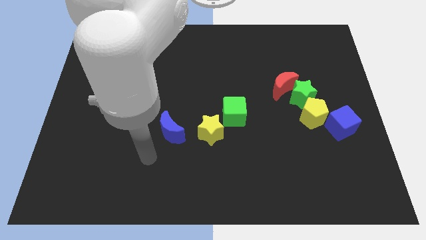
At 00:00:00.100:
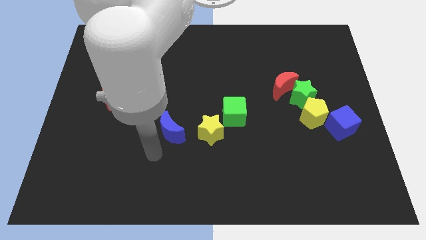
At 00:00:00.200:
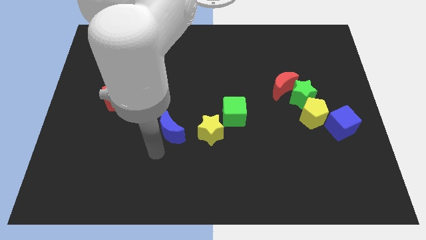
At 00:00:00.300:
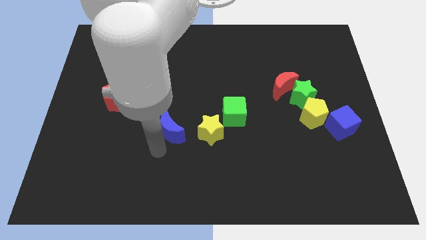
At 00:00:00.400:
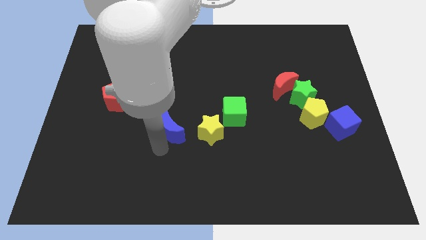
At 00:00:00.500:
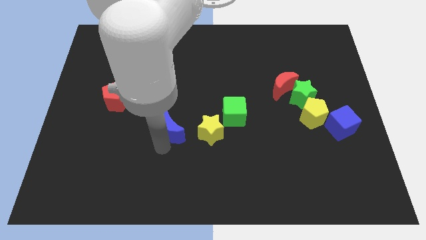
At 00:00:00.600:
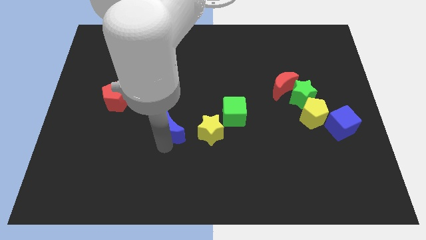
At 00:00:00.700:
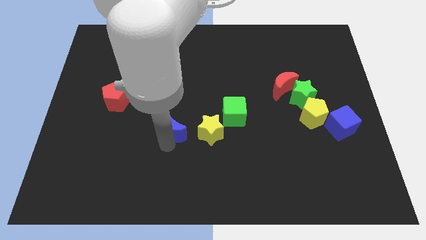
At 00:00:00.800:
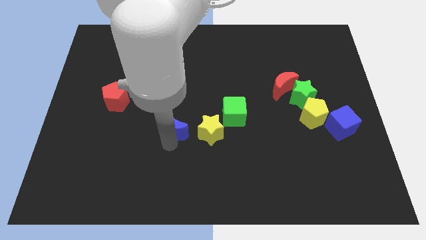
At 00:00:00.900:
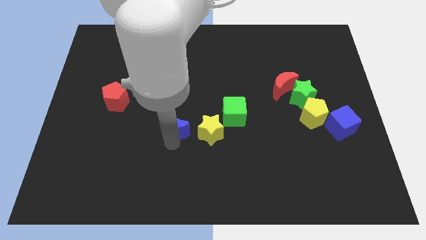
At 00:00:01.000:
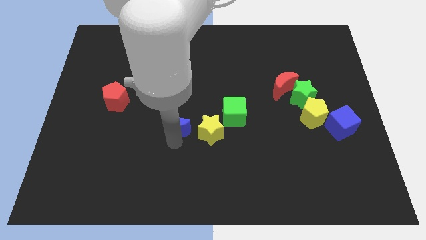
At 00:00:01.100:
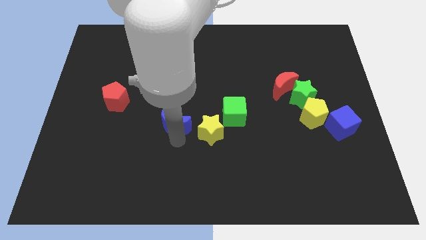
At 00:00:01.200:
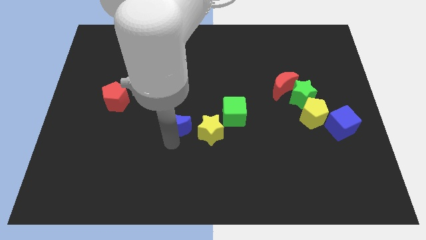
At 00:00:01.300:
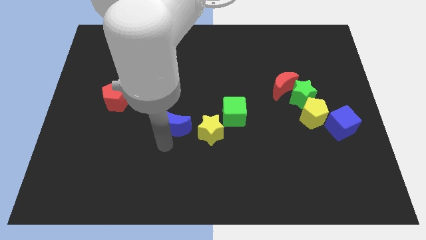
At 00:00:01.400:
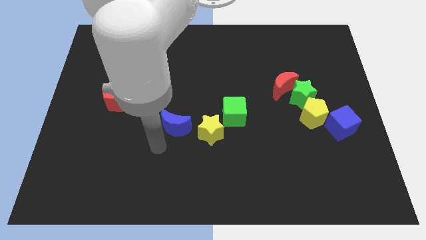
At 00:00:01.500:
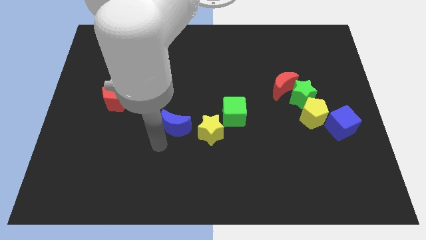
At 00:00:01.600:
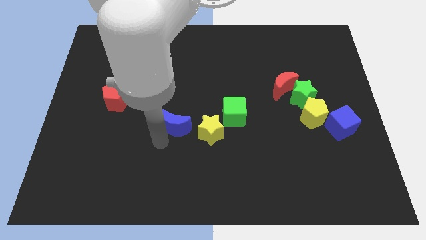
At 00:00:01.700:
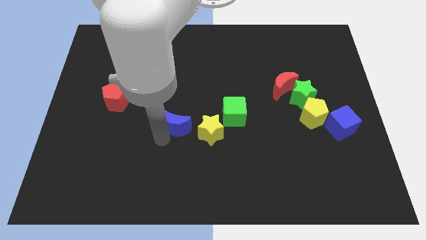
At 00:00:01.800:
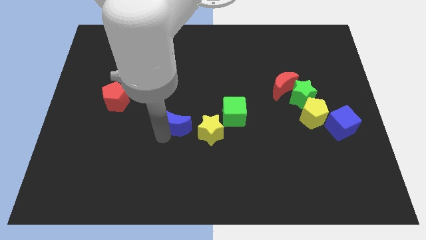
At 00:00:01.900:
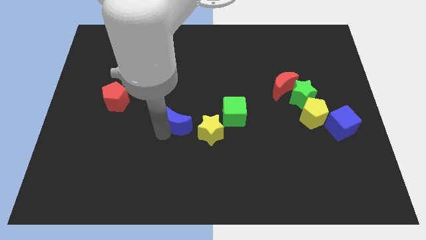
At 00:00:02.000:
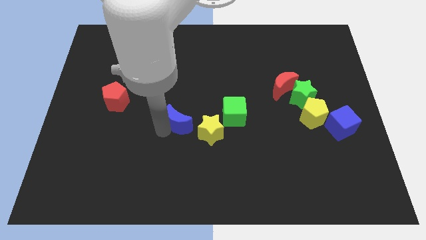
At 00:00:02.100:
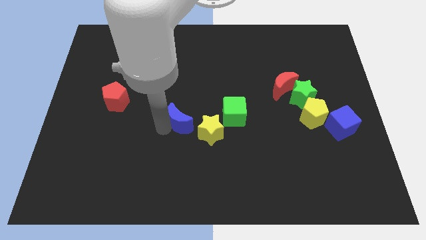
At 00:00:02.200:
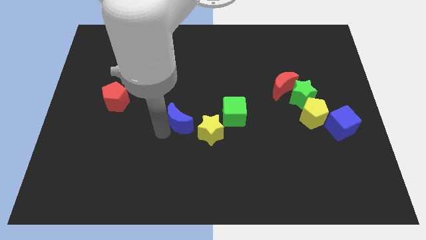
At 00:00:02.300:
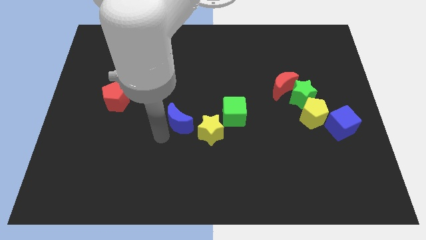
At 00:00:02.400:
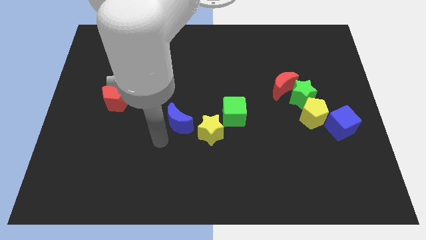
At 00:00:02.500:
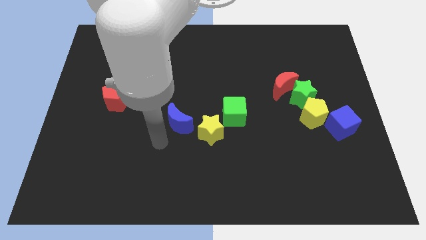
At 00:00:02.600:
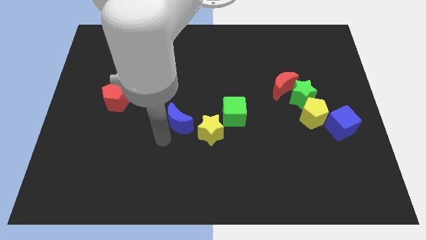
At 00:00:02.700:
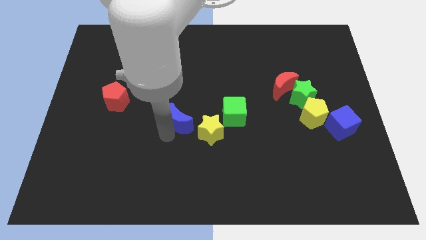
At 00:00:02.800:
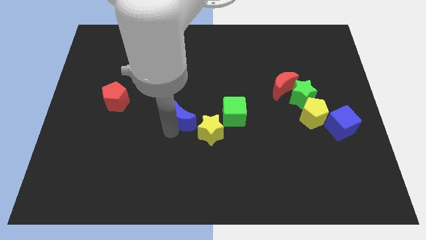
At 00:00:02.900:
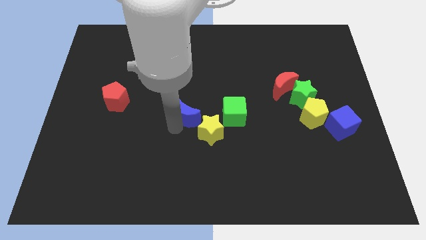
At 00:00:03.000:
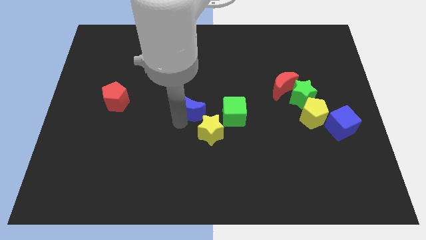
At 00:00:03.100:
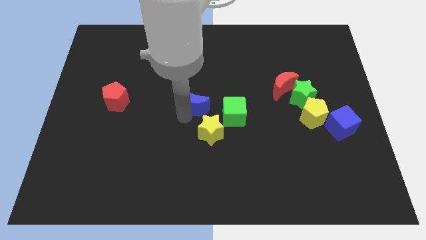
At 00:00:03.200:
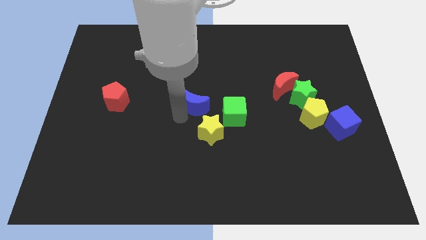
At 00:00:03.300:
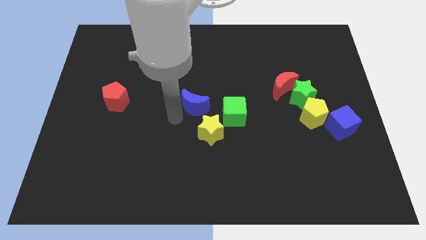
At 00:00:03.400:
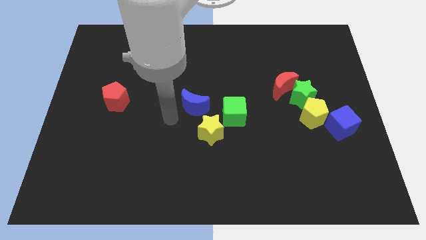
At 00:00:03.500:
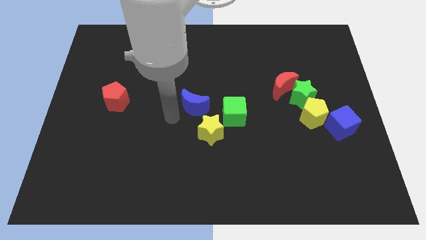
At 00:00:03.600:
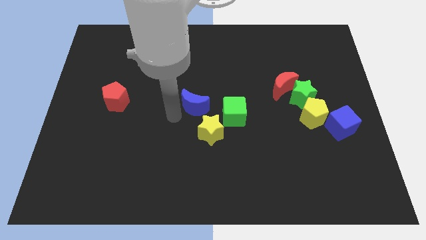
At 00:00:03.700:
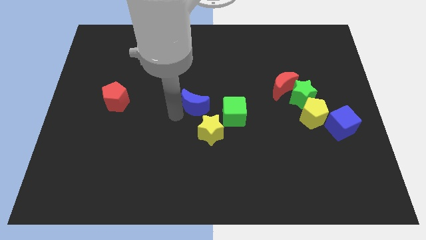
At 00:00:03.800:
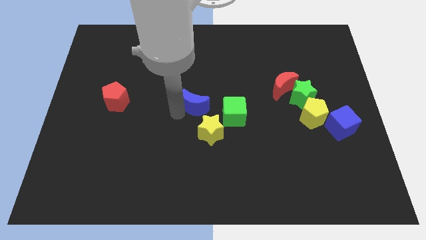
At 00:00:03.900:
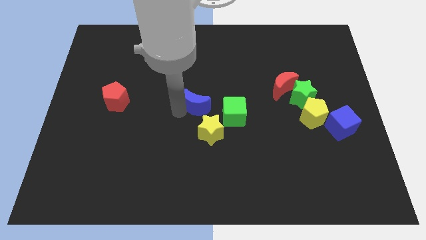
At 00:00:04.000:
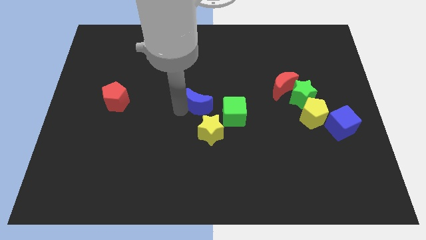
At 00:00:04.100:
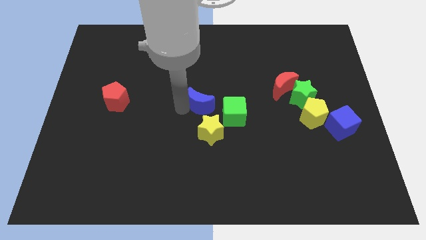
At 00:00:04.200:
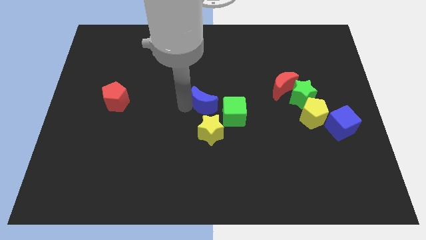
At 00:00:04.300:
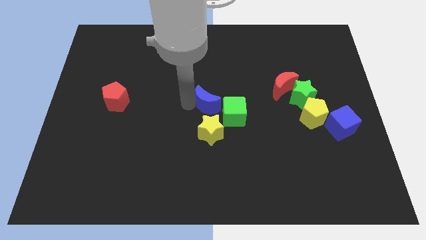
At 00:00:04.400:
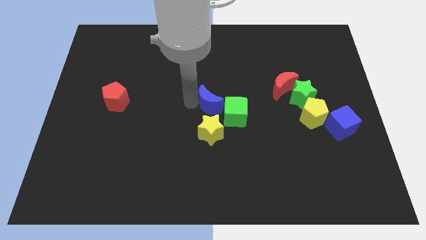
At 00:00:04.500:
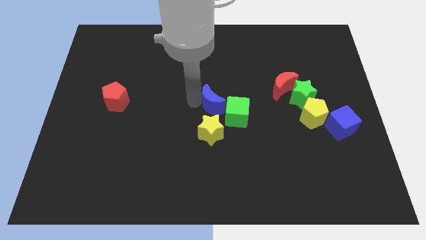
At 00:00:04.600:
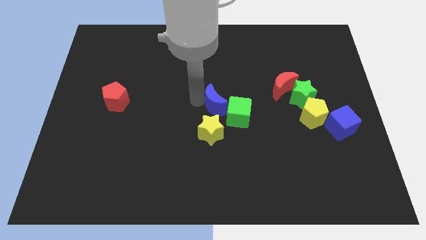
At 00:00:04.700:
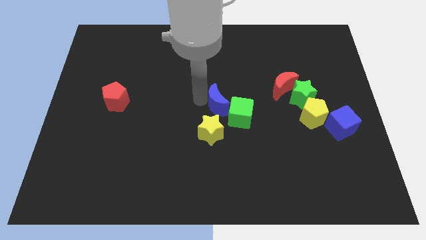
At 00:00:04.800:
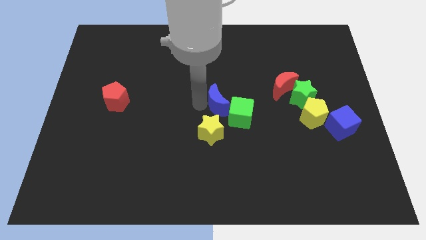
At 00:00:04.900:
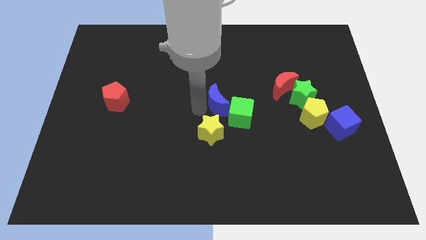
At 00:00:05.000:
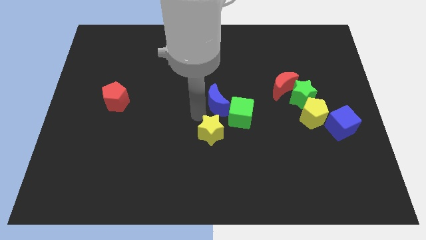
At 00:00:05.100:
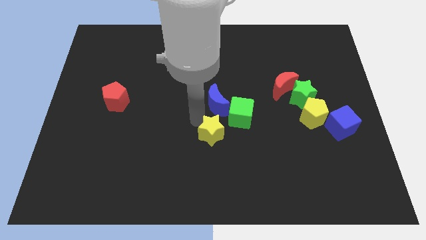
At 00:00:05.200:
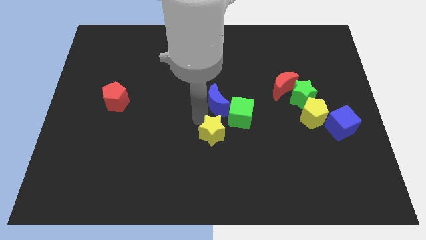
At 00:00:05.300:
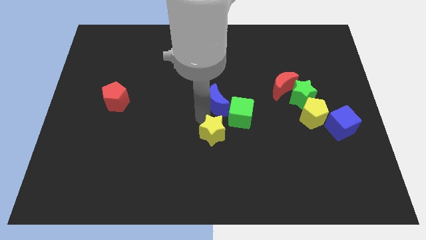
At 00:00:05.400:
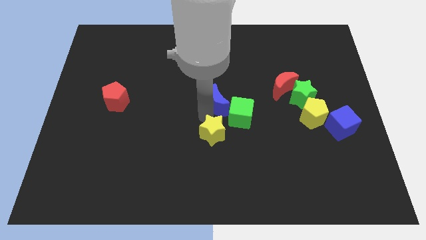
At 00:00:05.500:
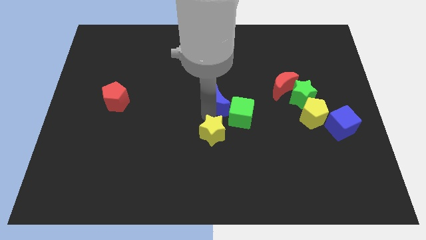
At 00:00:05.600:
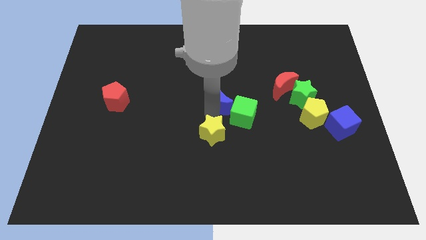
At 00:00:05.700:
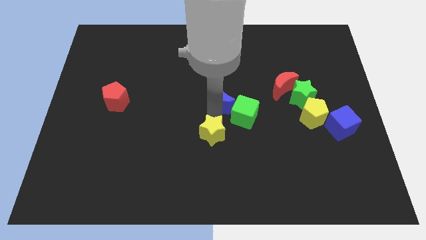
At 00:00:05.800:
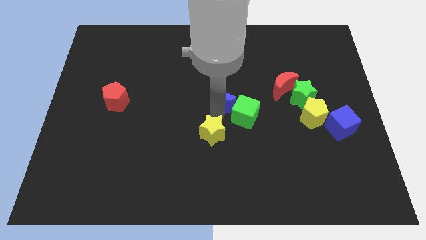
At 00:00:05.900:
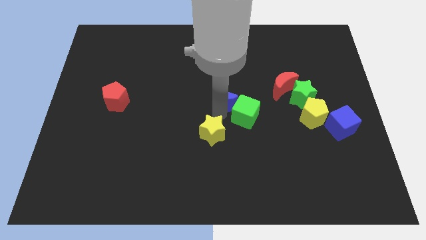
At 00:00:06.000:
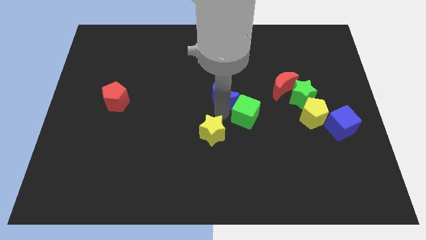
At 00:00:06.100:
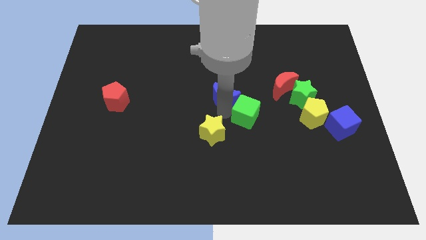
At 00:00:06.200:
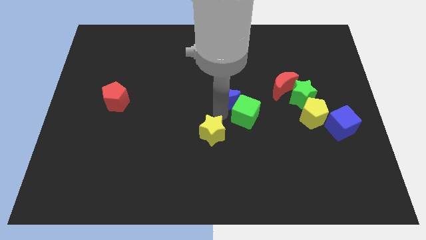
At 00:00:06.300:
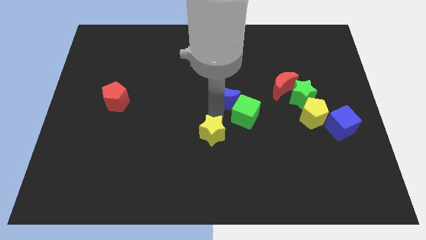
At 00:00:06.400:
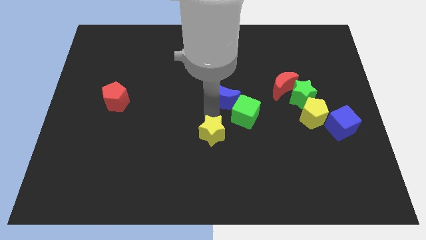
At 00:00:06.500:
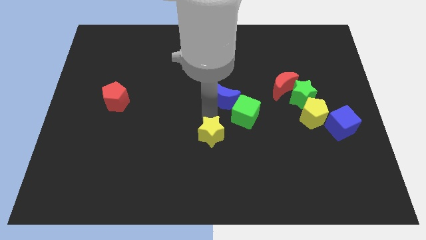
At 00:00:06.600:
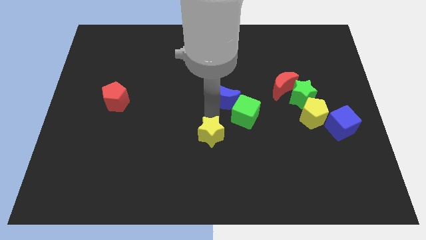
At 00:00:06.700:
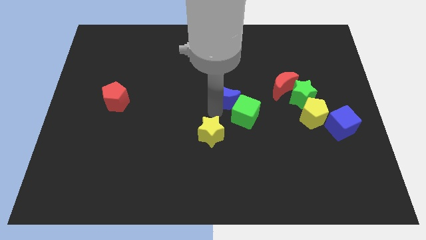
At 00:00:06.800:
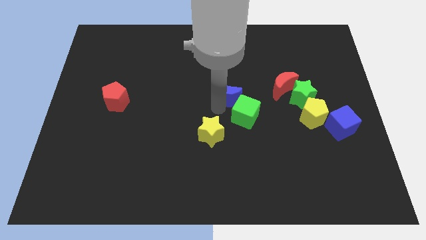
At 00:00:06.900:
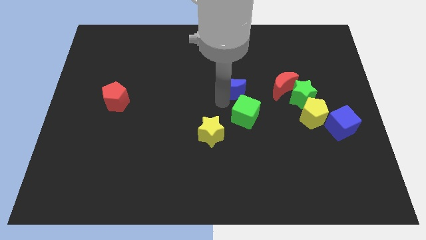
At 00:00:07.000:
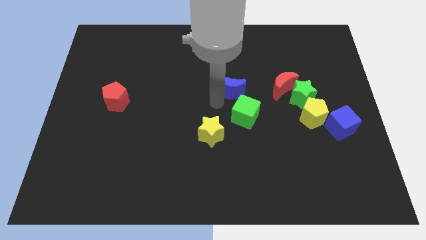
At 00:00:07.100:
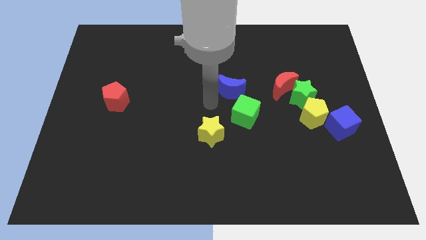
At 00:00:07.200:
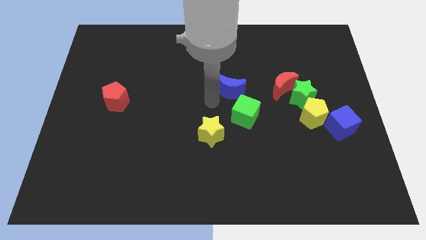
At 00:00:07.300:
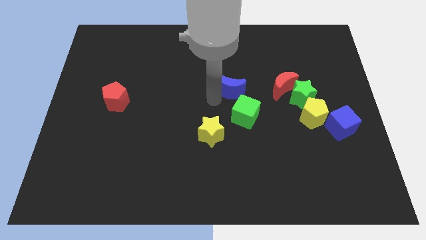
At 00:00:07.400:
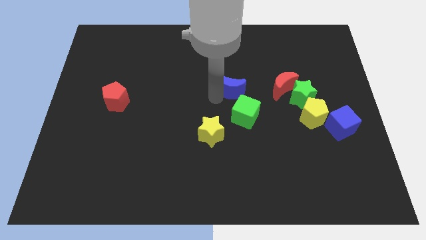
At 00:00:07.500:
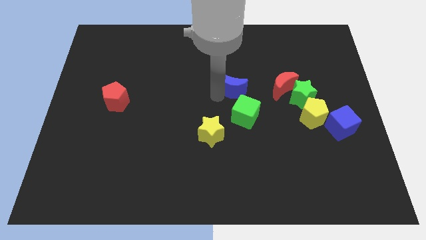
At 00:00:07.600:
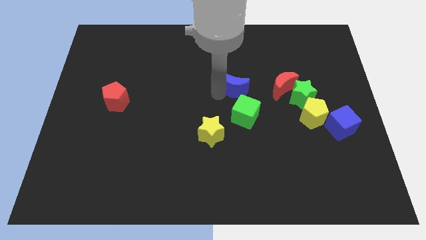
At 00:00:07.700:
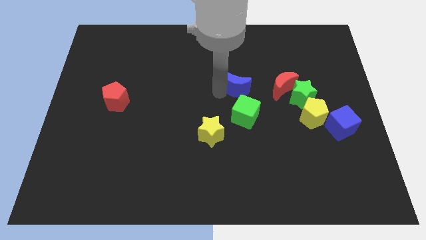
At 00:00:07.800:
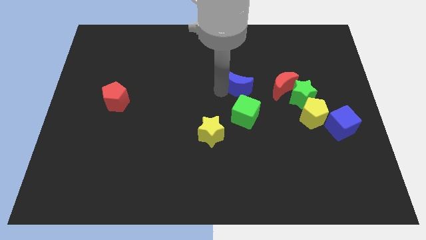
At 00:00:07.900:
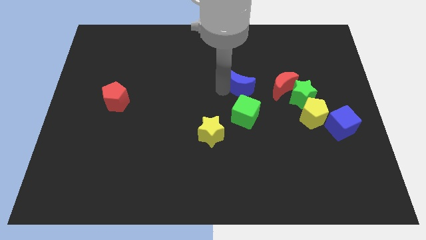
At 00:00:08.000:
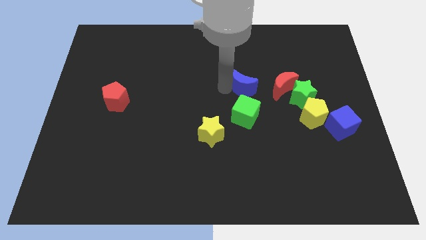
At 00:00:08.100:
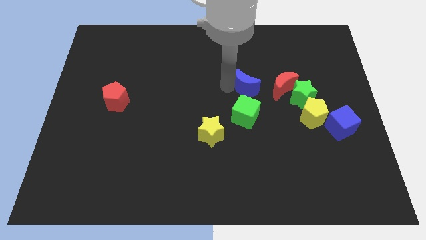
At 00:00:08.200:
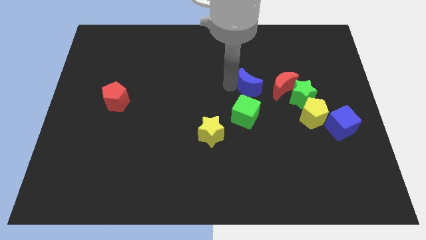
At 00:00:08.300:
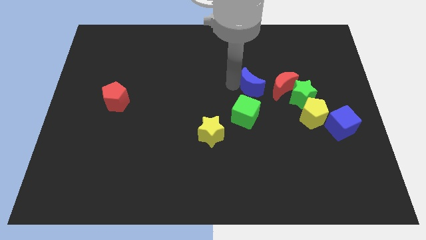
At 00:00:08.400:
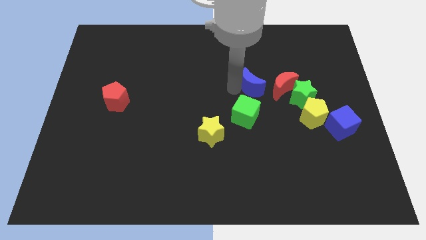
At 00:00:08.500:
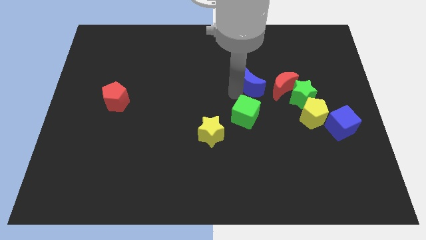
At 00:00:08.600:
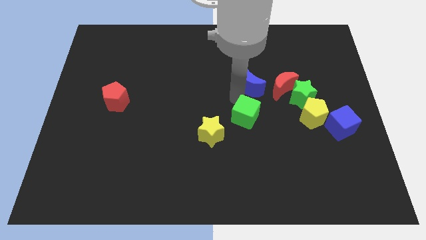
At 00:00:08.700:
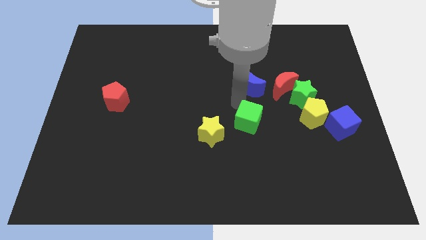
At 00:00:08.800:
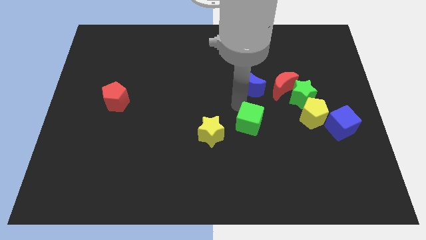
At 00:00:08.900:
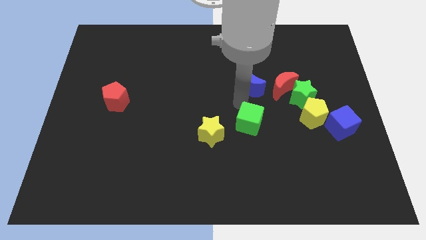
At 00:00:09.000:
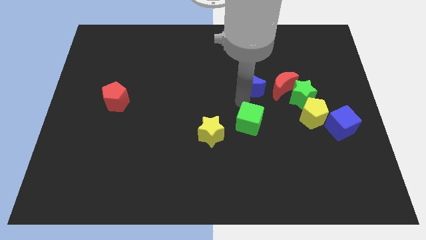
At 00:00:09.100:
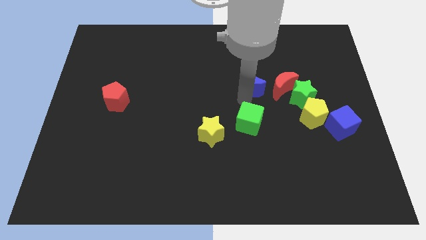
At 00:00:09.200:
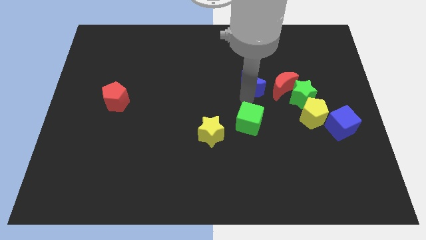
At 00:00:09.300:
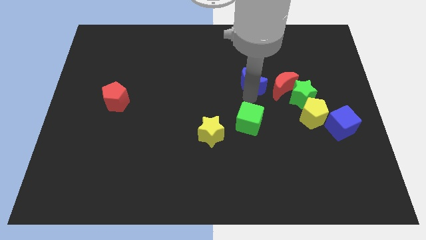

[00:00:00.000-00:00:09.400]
move the blue moon to the top left of the red moon
